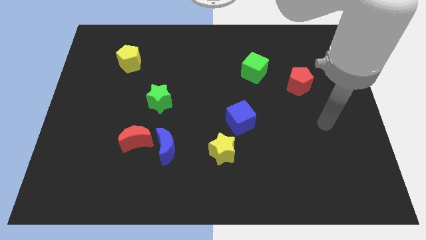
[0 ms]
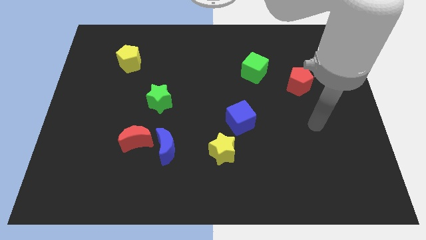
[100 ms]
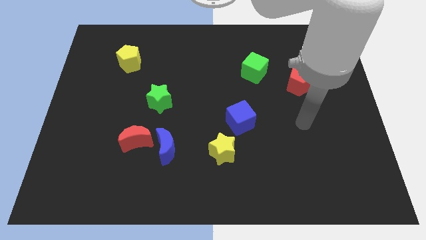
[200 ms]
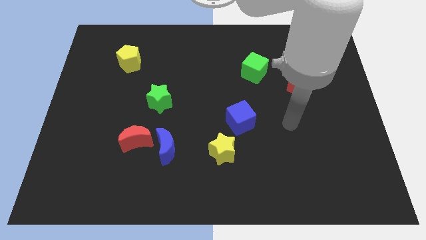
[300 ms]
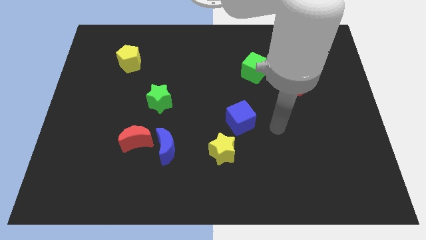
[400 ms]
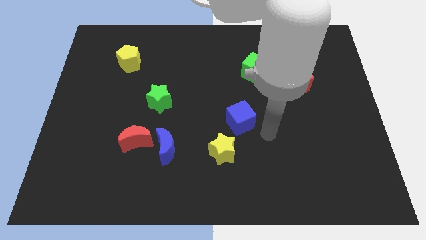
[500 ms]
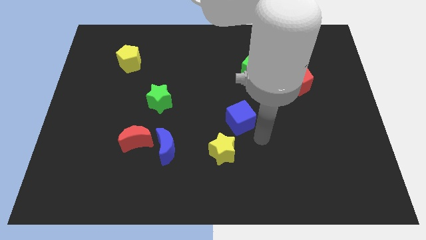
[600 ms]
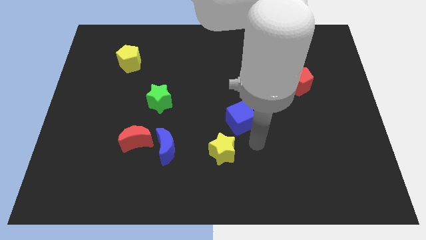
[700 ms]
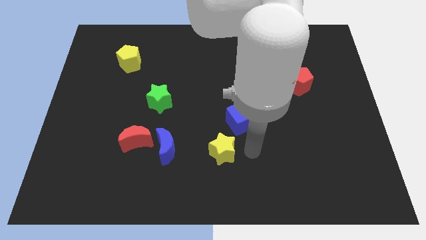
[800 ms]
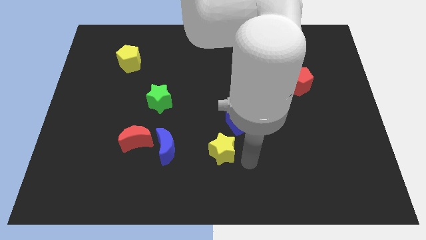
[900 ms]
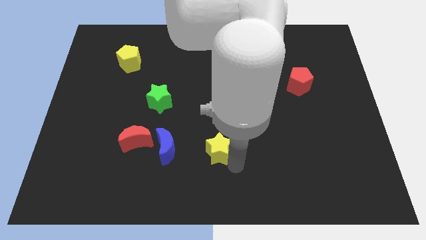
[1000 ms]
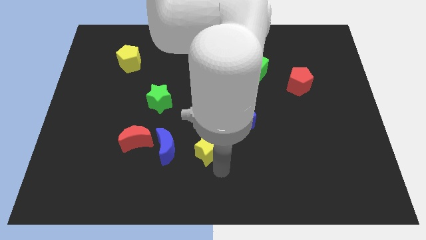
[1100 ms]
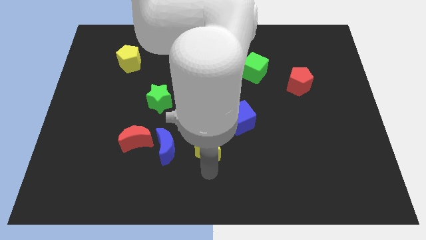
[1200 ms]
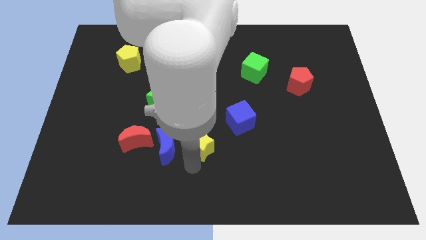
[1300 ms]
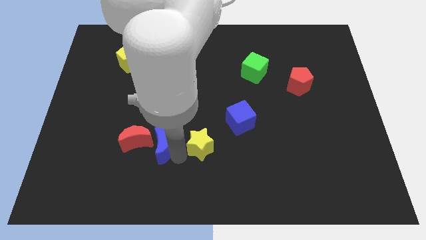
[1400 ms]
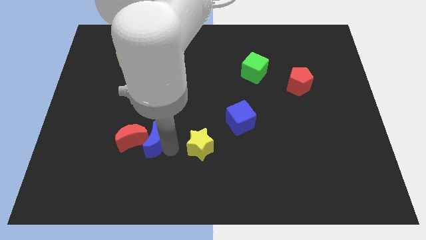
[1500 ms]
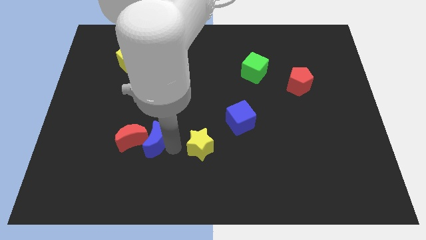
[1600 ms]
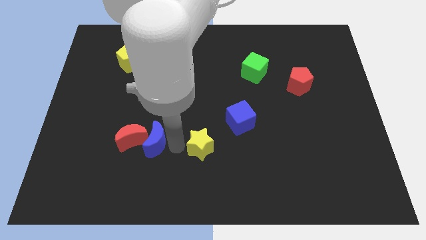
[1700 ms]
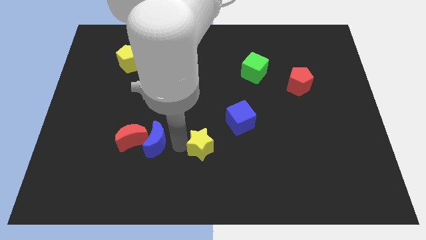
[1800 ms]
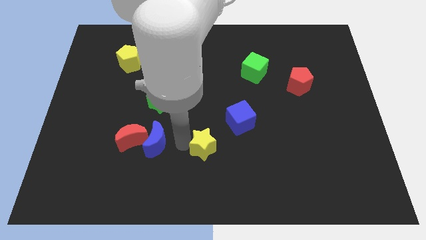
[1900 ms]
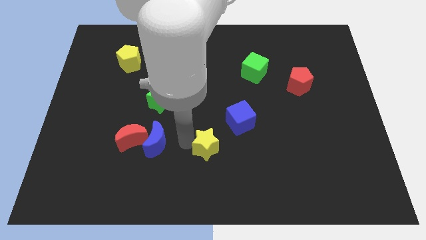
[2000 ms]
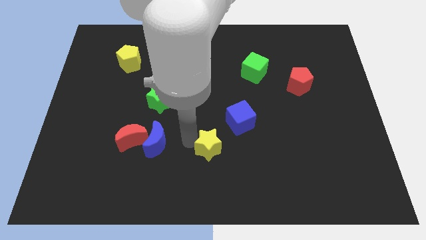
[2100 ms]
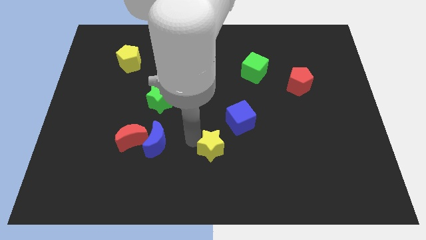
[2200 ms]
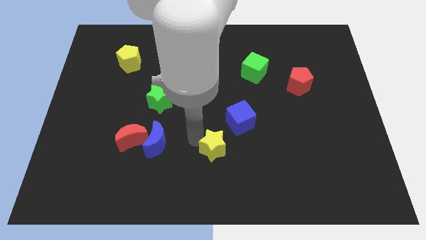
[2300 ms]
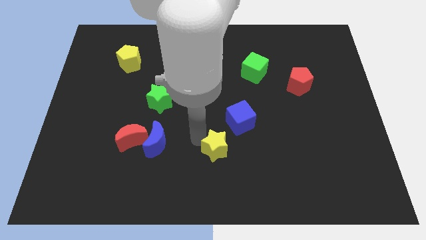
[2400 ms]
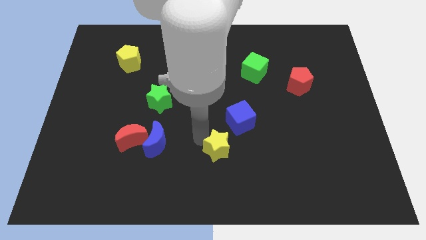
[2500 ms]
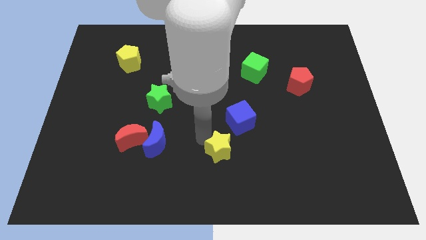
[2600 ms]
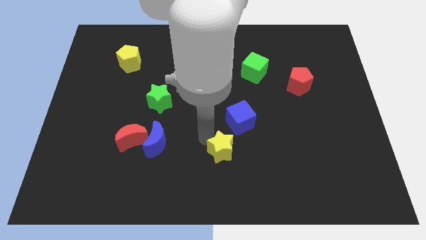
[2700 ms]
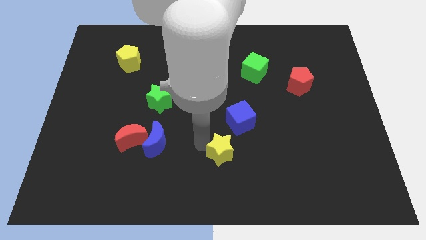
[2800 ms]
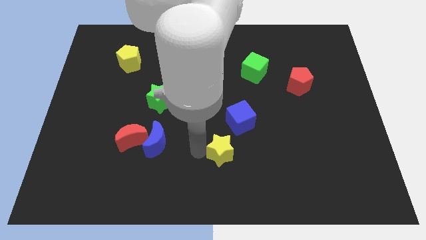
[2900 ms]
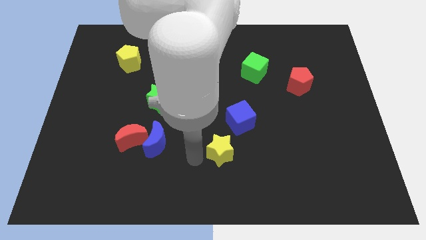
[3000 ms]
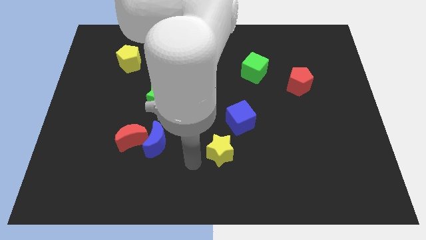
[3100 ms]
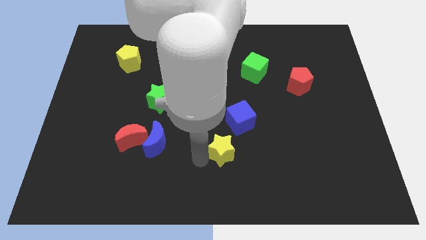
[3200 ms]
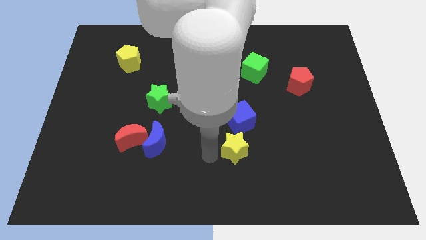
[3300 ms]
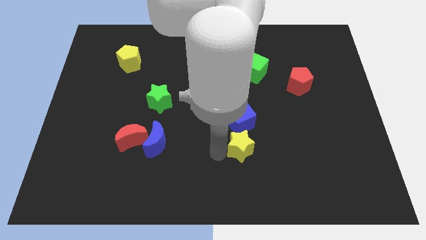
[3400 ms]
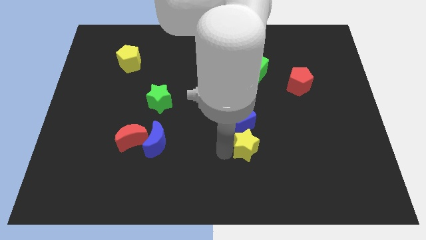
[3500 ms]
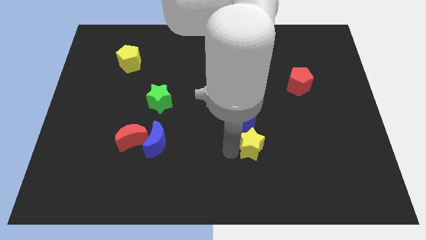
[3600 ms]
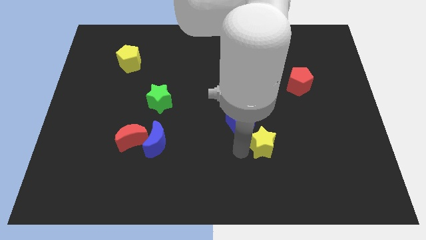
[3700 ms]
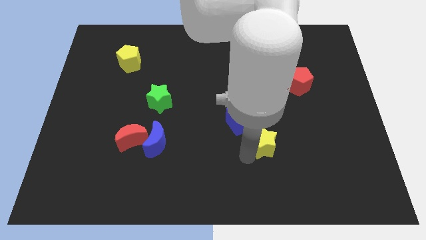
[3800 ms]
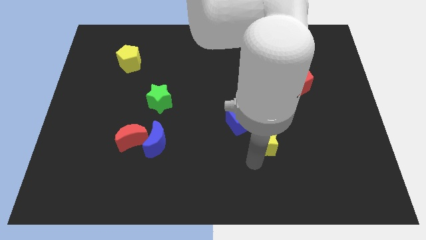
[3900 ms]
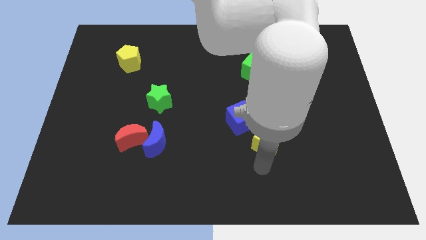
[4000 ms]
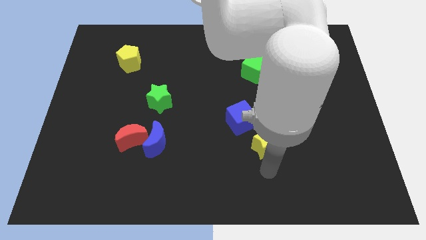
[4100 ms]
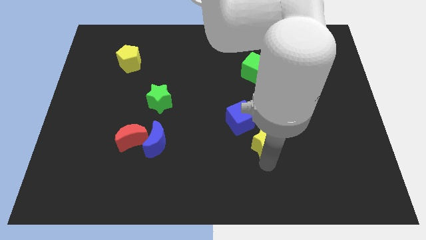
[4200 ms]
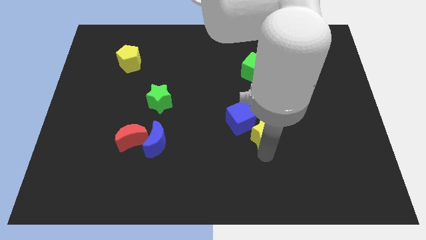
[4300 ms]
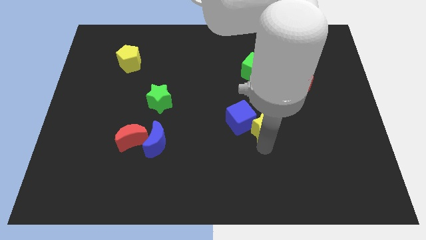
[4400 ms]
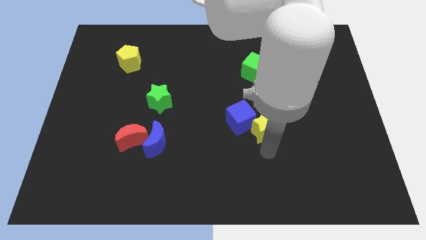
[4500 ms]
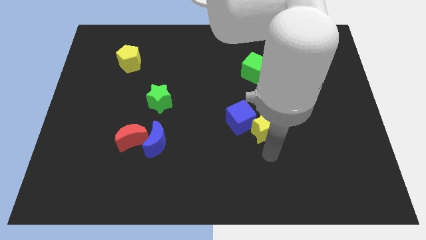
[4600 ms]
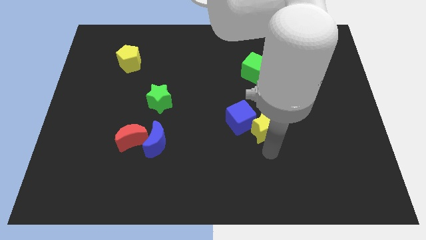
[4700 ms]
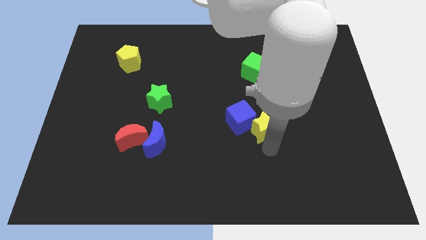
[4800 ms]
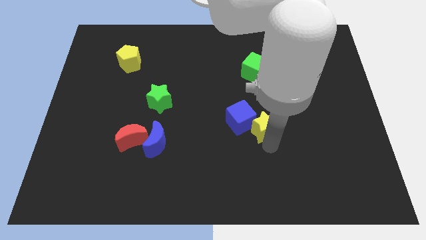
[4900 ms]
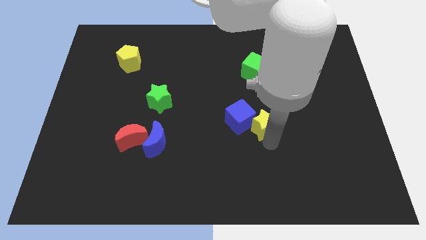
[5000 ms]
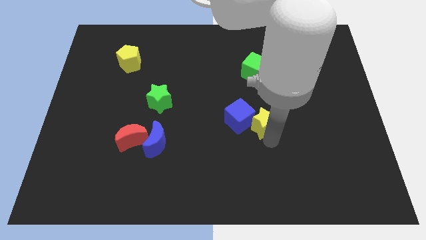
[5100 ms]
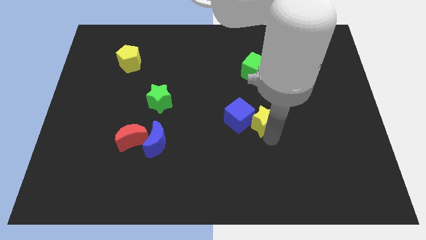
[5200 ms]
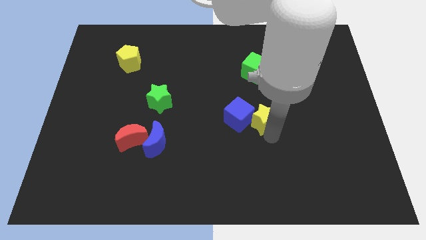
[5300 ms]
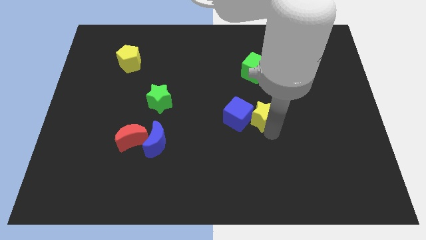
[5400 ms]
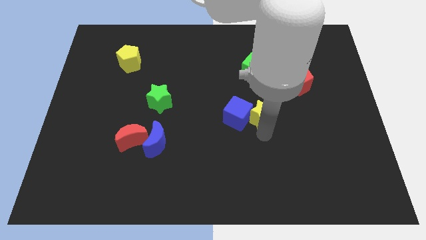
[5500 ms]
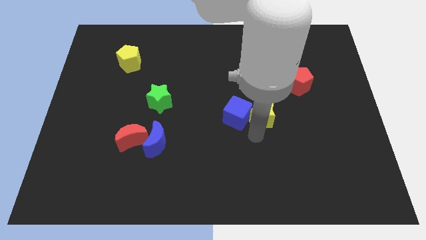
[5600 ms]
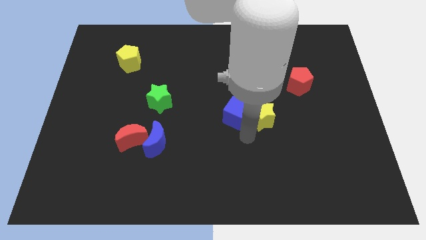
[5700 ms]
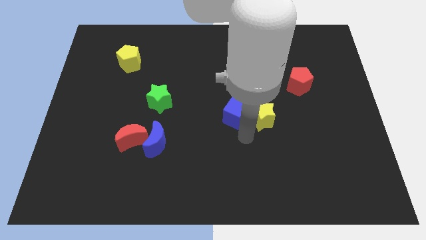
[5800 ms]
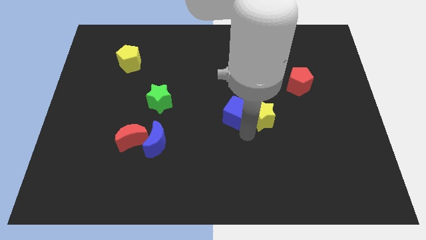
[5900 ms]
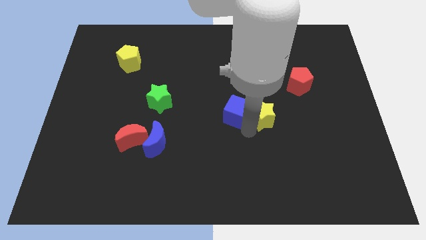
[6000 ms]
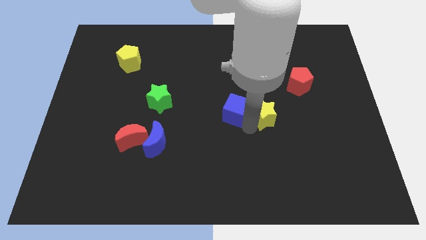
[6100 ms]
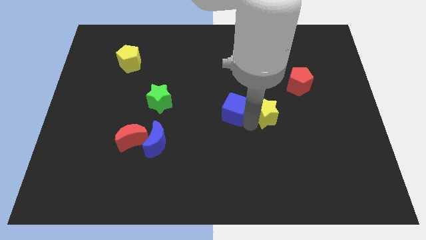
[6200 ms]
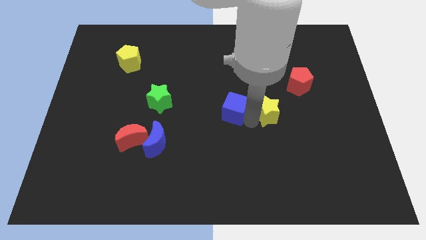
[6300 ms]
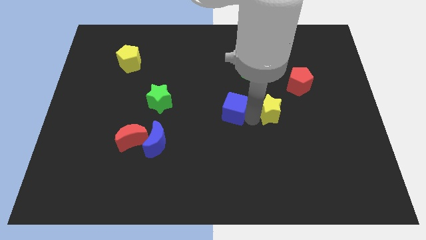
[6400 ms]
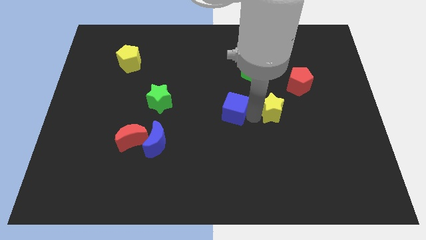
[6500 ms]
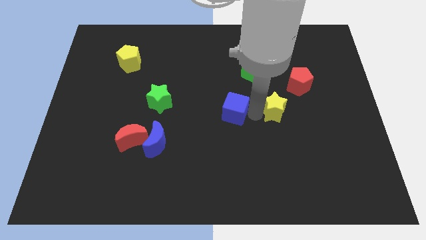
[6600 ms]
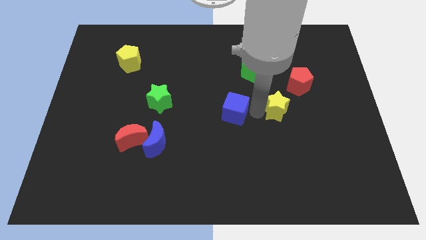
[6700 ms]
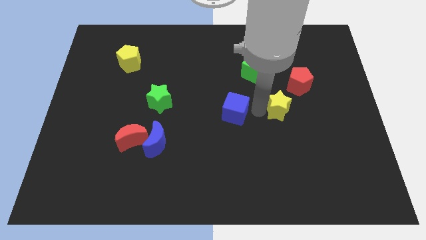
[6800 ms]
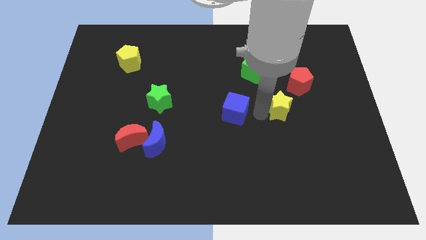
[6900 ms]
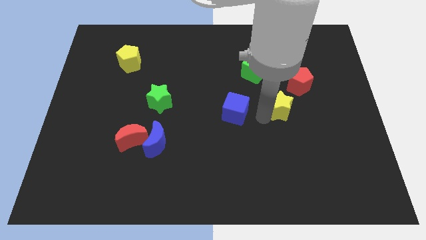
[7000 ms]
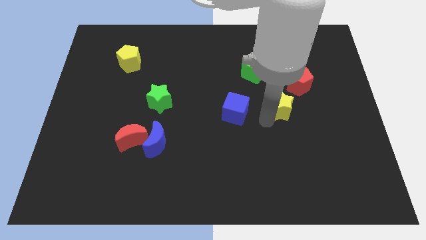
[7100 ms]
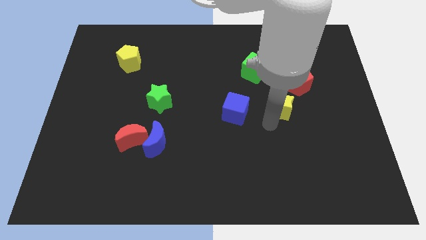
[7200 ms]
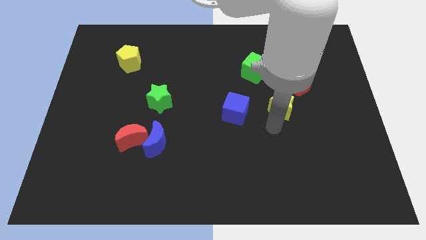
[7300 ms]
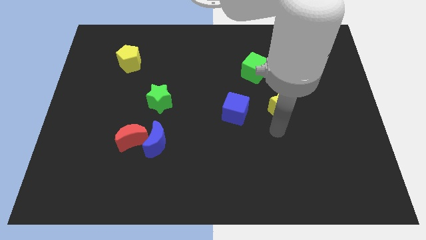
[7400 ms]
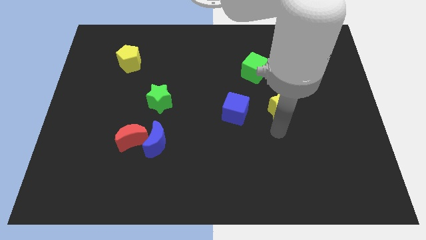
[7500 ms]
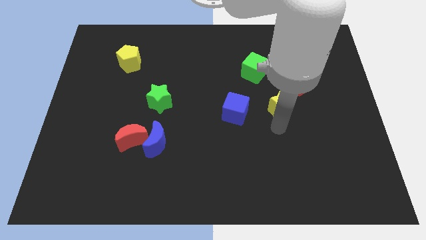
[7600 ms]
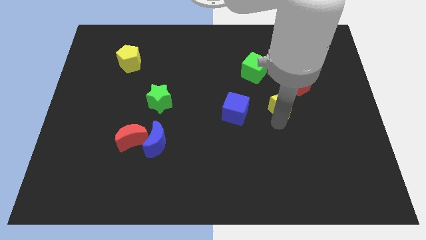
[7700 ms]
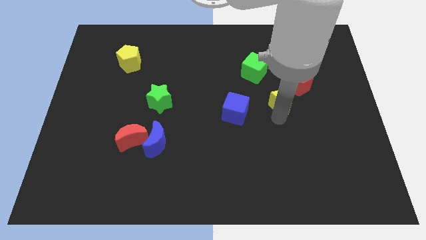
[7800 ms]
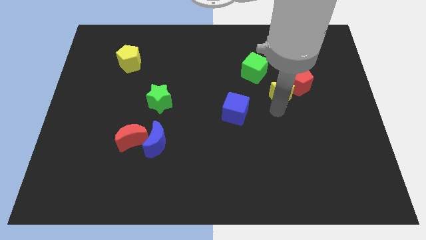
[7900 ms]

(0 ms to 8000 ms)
put the yellow star close to the red pentagon
